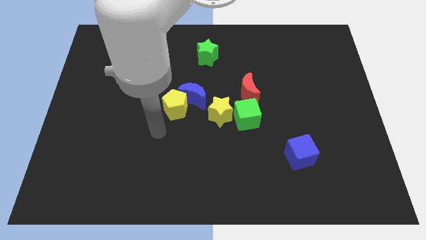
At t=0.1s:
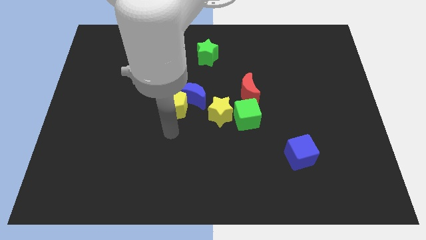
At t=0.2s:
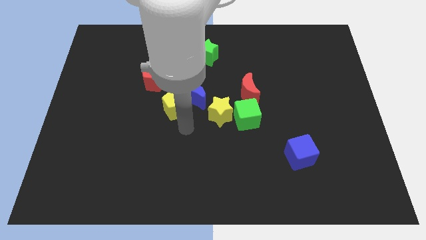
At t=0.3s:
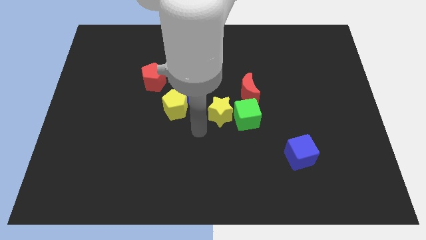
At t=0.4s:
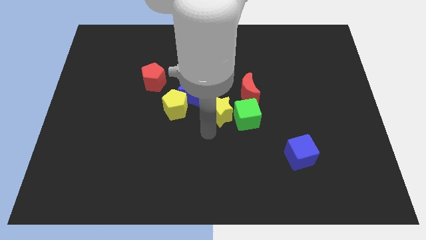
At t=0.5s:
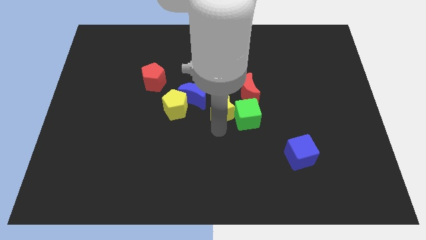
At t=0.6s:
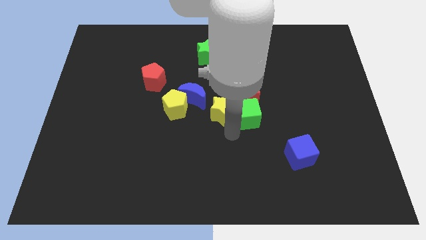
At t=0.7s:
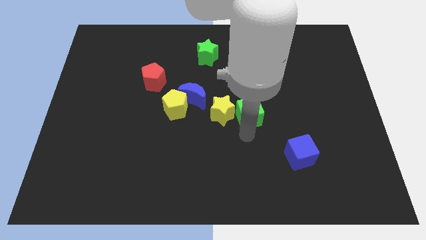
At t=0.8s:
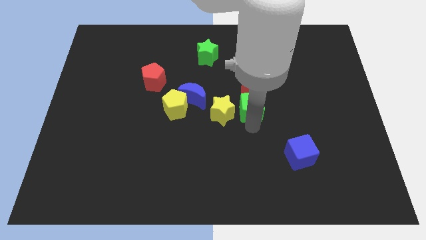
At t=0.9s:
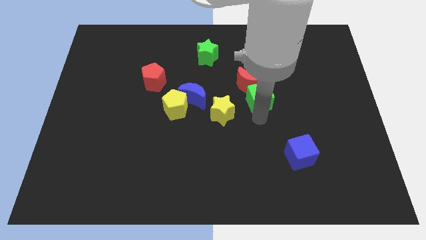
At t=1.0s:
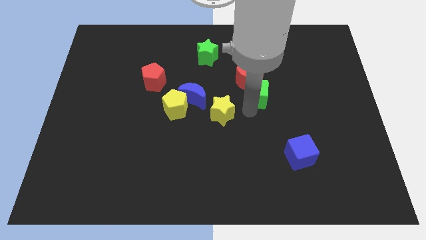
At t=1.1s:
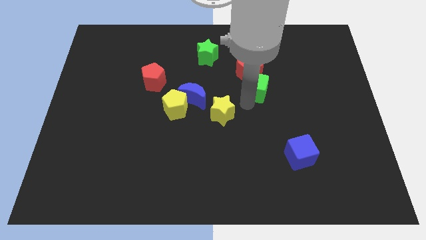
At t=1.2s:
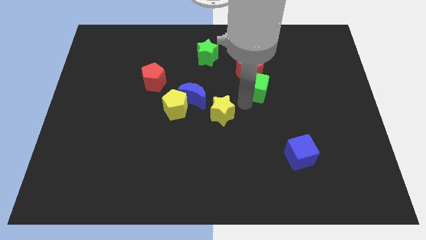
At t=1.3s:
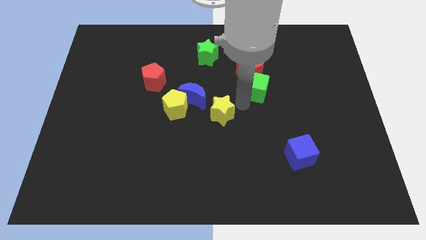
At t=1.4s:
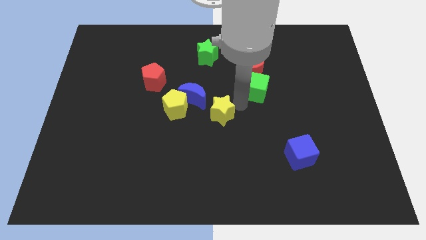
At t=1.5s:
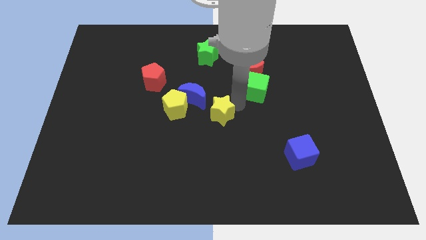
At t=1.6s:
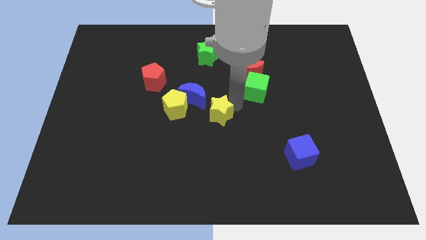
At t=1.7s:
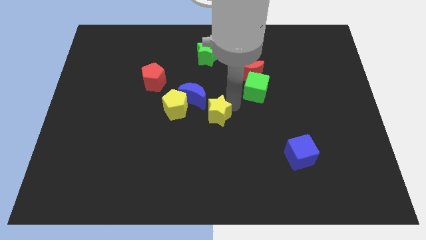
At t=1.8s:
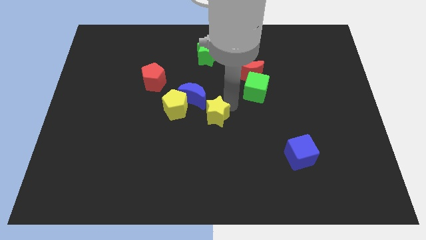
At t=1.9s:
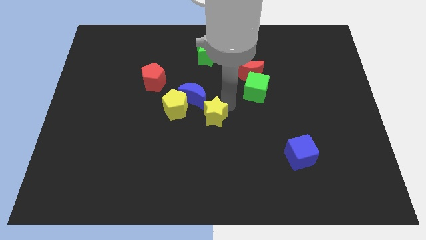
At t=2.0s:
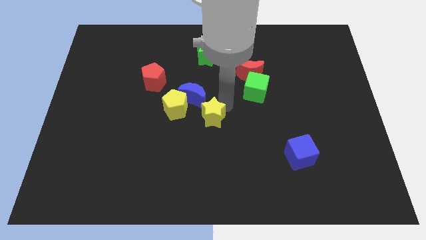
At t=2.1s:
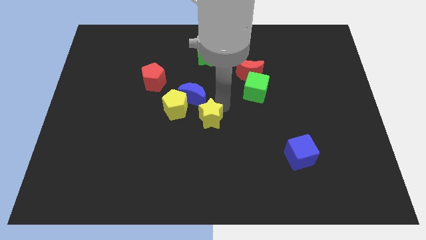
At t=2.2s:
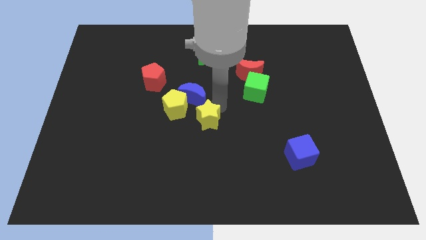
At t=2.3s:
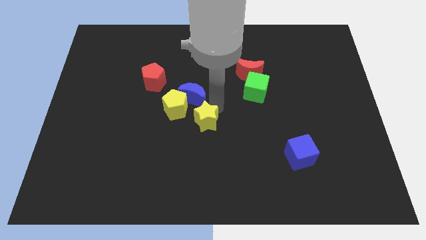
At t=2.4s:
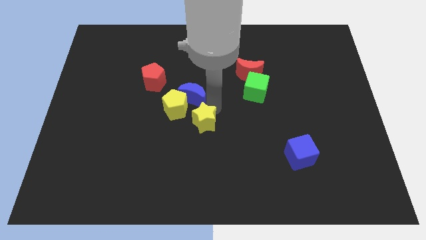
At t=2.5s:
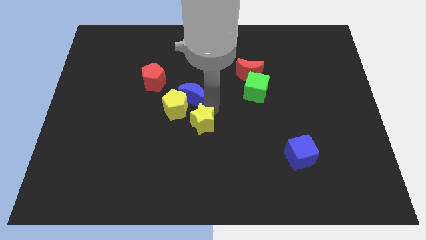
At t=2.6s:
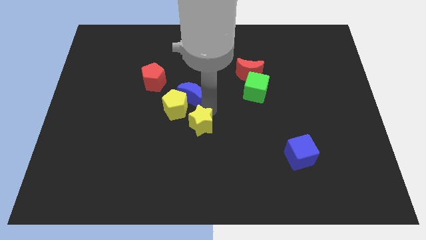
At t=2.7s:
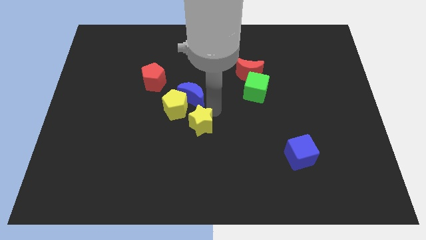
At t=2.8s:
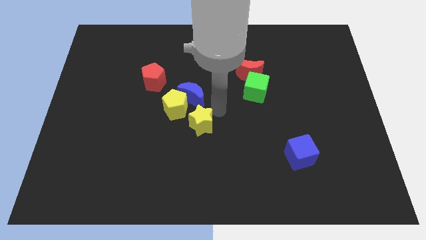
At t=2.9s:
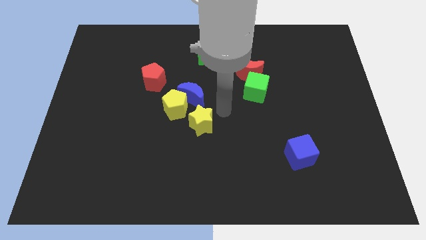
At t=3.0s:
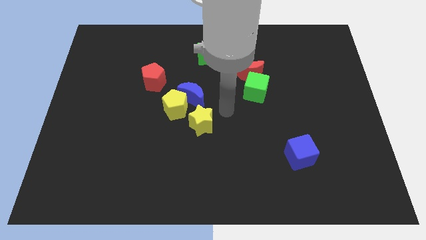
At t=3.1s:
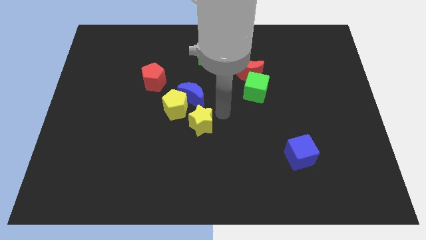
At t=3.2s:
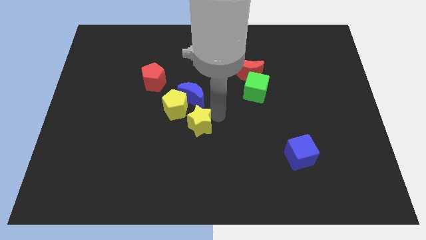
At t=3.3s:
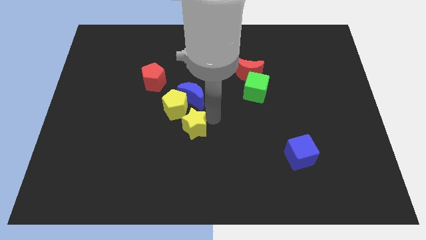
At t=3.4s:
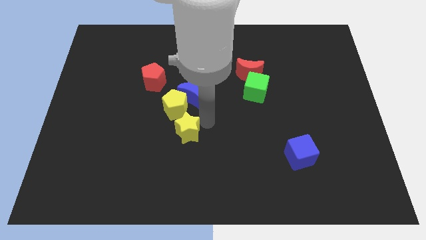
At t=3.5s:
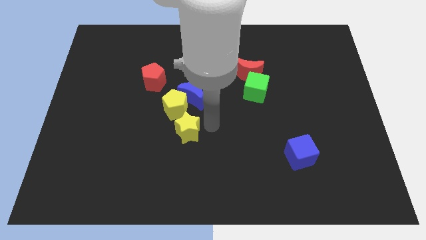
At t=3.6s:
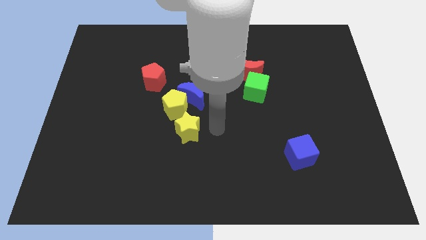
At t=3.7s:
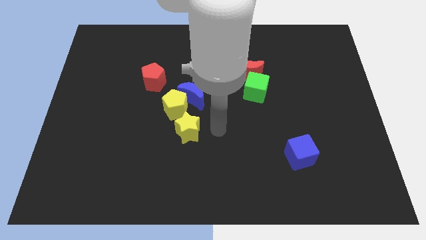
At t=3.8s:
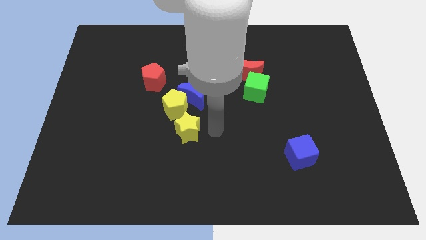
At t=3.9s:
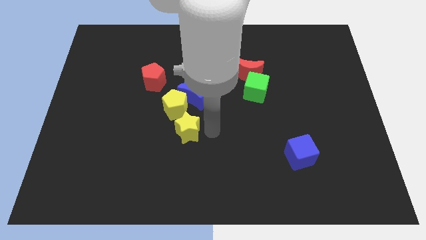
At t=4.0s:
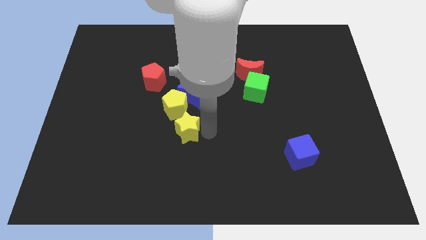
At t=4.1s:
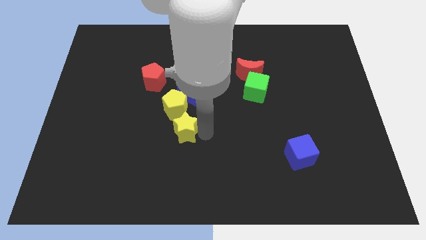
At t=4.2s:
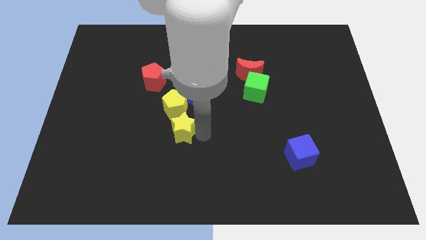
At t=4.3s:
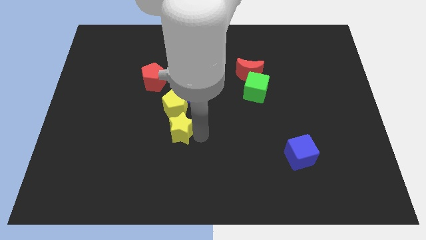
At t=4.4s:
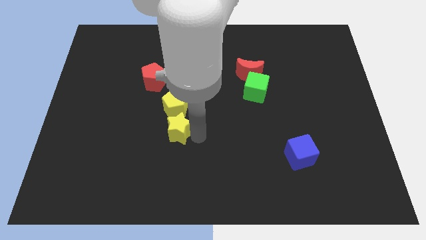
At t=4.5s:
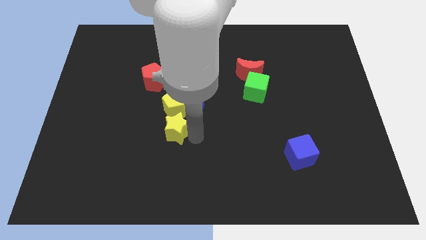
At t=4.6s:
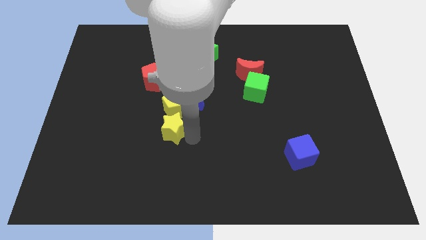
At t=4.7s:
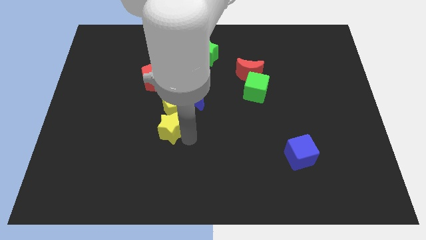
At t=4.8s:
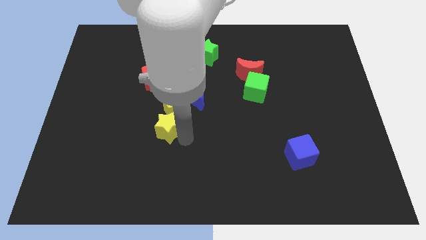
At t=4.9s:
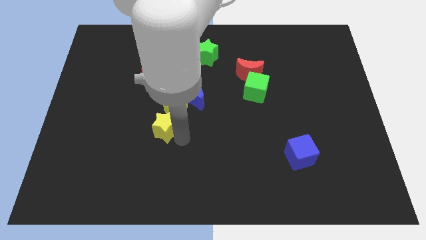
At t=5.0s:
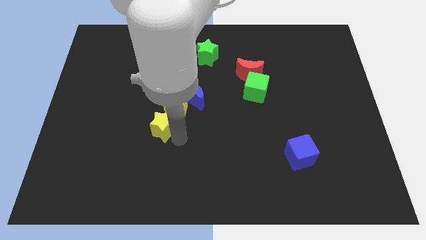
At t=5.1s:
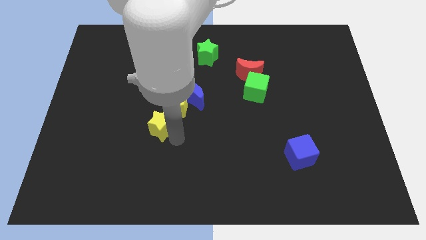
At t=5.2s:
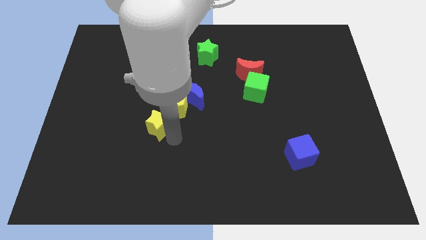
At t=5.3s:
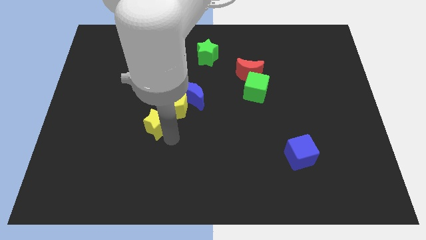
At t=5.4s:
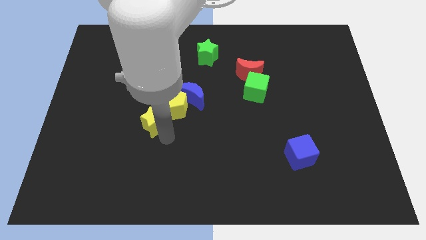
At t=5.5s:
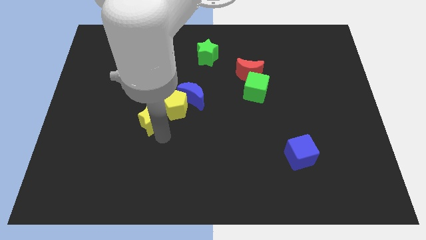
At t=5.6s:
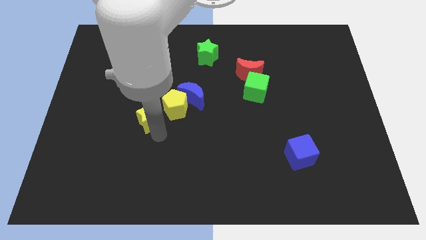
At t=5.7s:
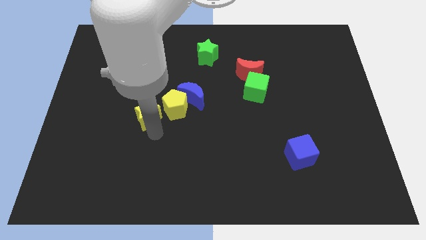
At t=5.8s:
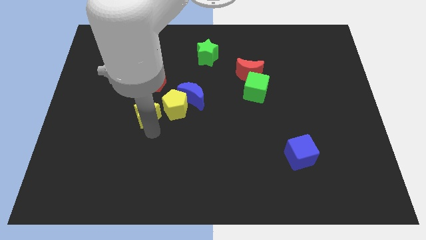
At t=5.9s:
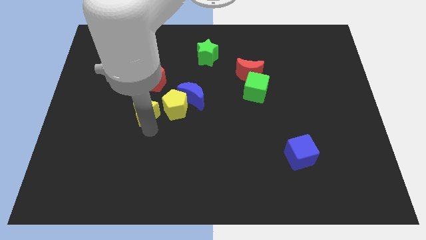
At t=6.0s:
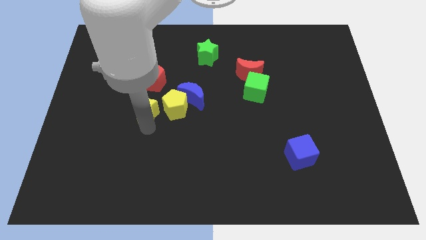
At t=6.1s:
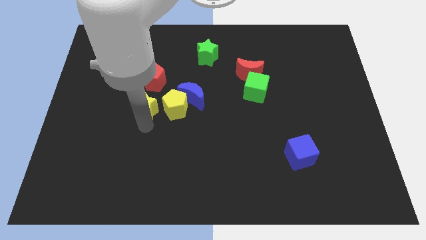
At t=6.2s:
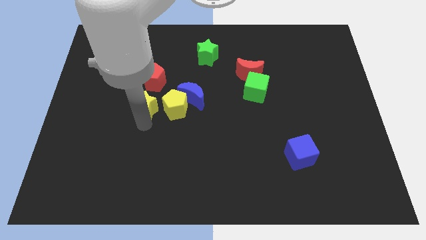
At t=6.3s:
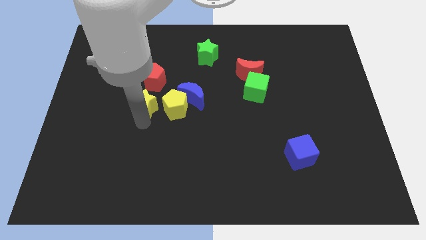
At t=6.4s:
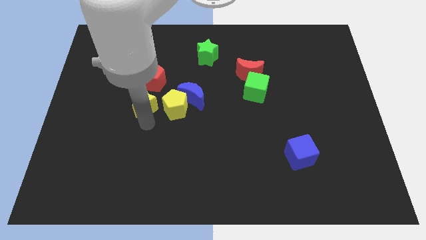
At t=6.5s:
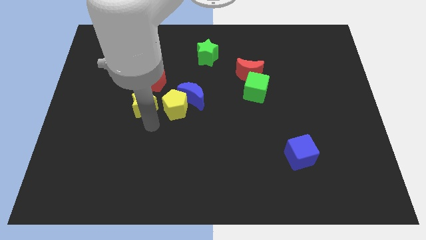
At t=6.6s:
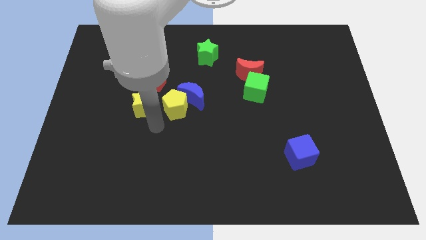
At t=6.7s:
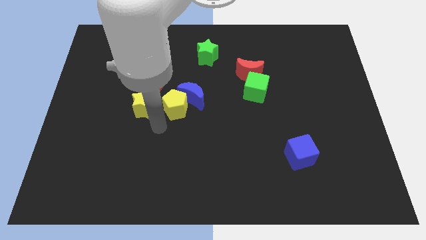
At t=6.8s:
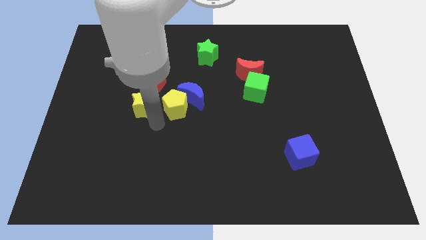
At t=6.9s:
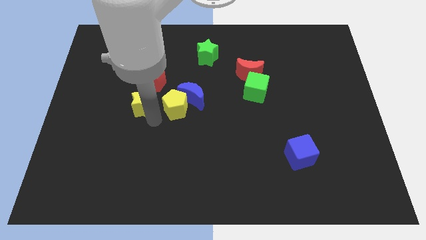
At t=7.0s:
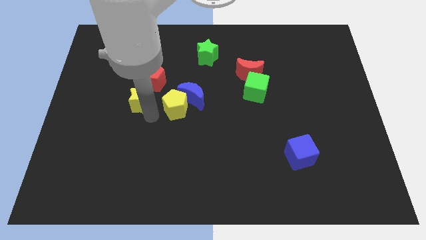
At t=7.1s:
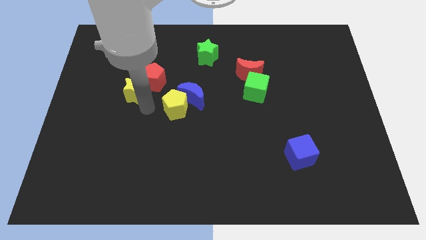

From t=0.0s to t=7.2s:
slide the yellow star left of the red pentagon
